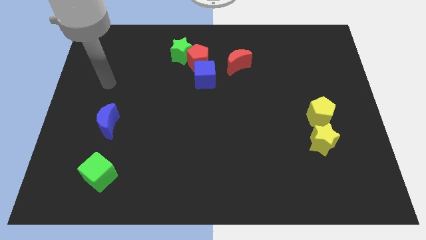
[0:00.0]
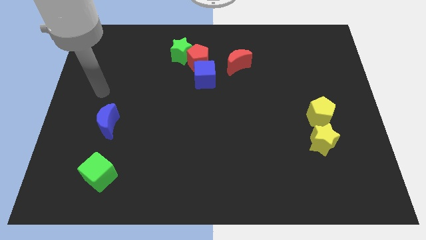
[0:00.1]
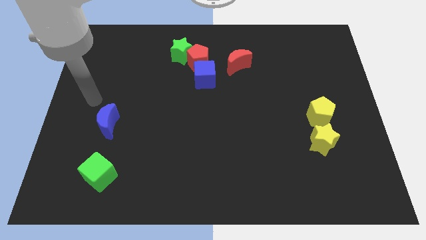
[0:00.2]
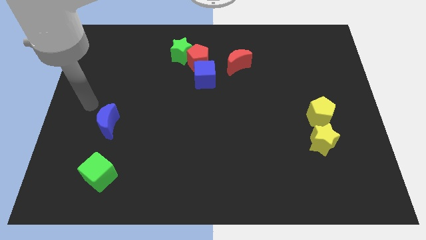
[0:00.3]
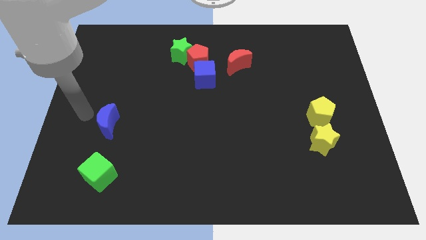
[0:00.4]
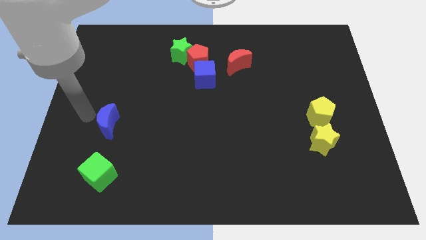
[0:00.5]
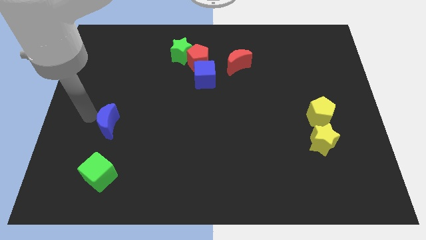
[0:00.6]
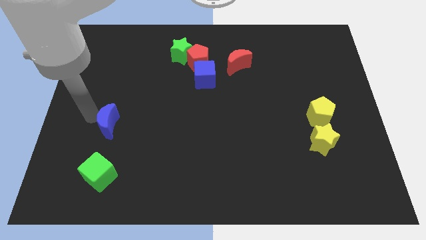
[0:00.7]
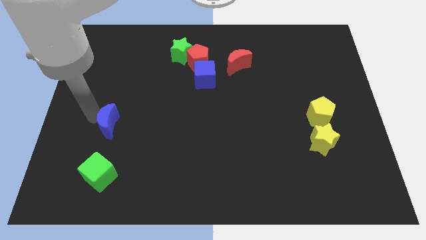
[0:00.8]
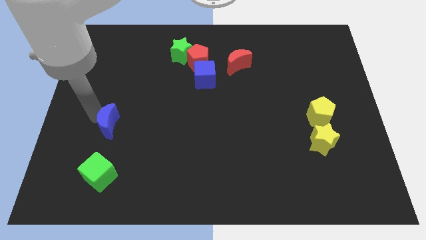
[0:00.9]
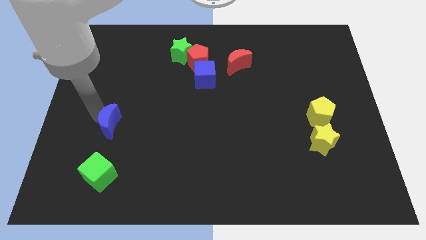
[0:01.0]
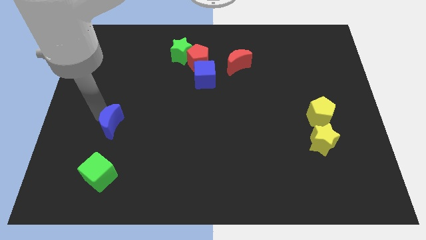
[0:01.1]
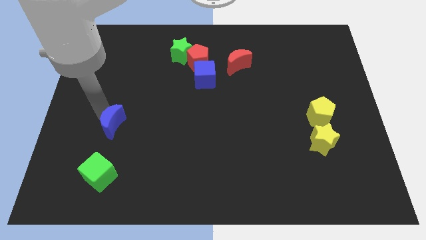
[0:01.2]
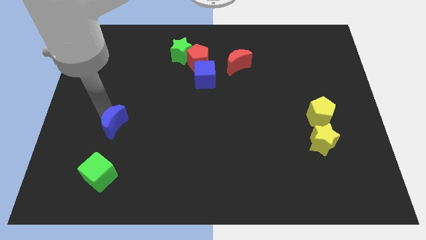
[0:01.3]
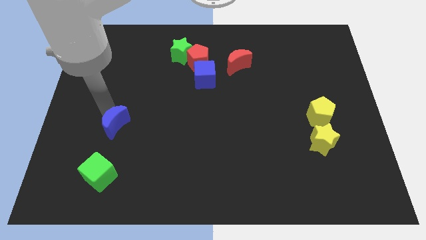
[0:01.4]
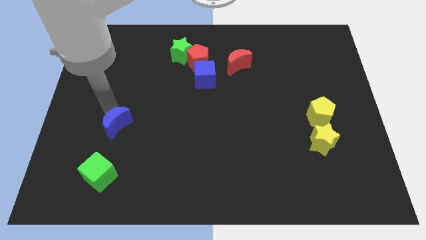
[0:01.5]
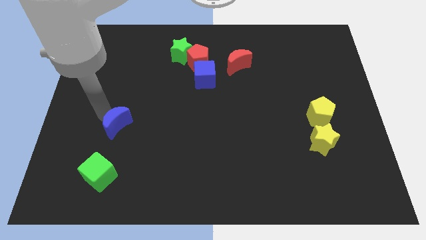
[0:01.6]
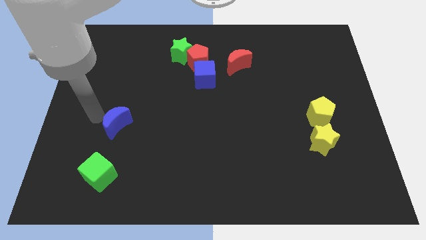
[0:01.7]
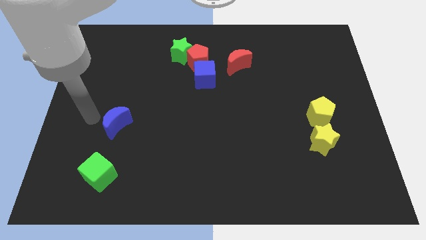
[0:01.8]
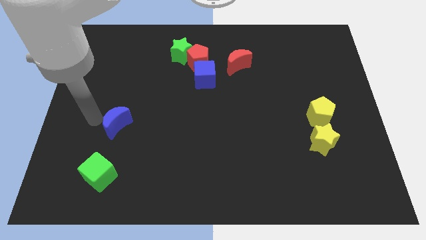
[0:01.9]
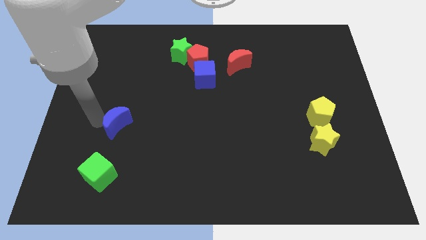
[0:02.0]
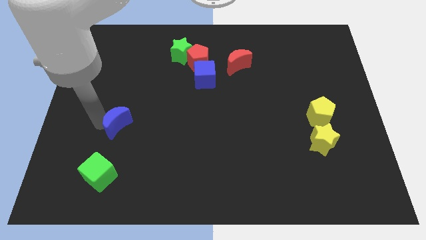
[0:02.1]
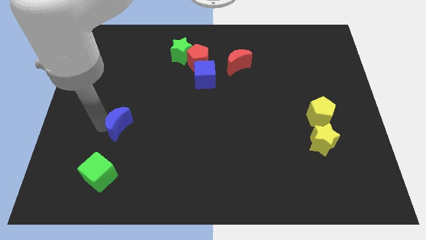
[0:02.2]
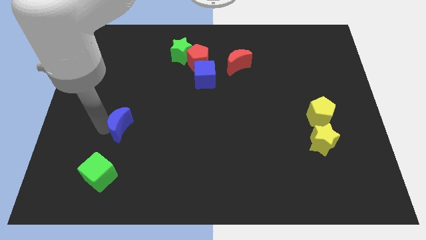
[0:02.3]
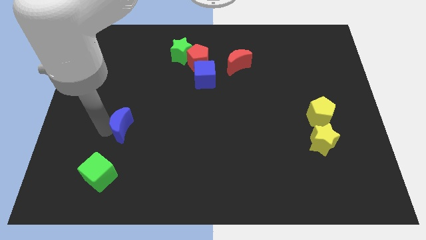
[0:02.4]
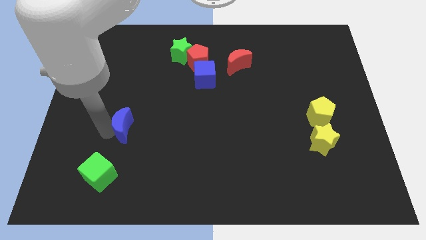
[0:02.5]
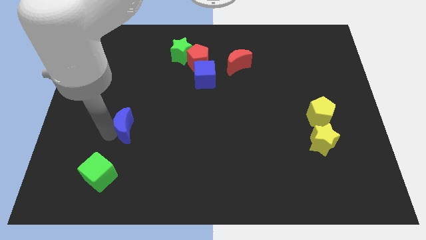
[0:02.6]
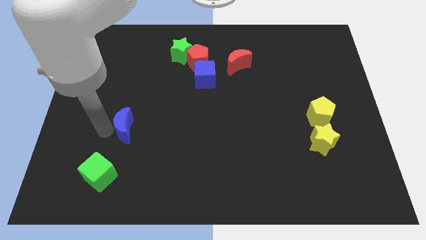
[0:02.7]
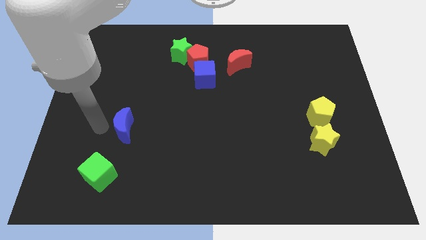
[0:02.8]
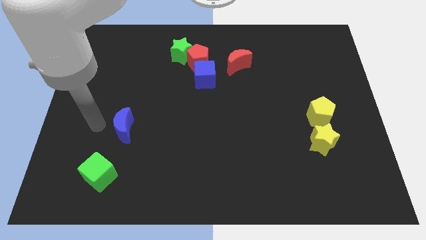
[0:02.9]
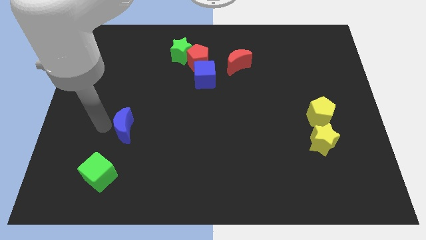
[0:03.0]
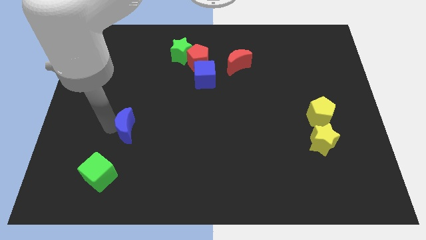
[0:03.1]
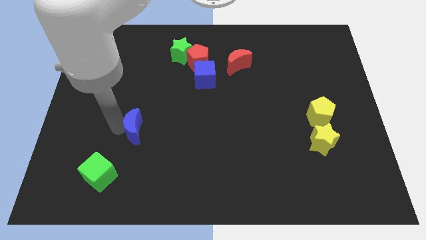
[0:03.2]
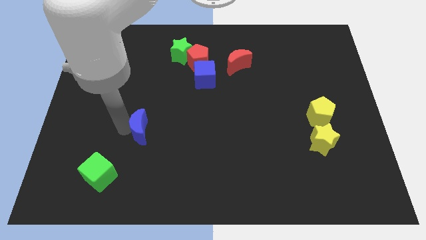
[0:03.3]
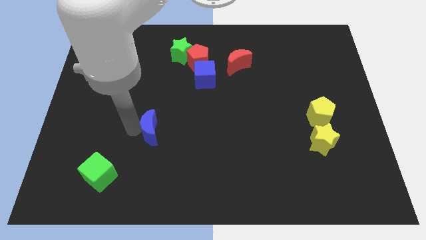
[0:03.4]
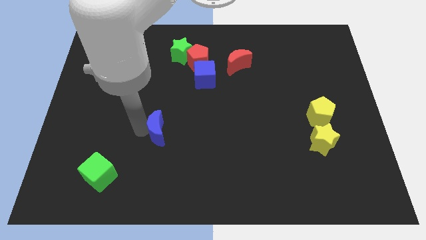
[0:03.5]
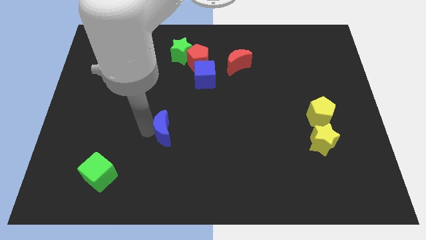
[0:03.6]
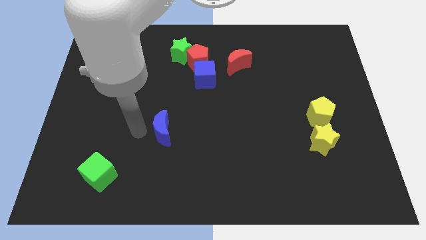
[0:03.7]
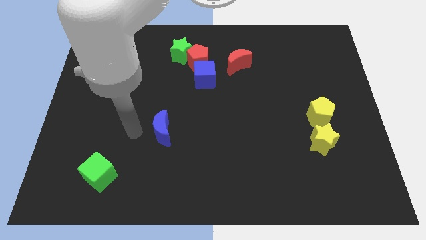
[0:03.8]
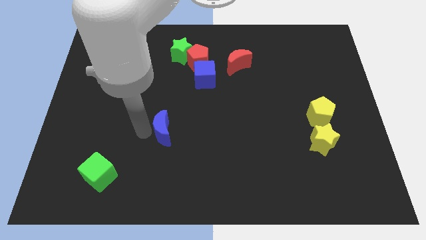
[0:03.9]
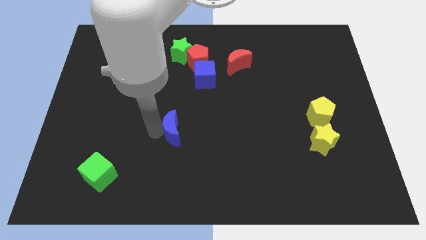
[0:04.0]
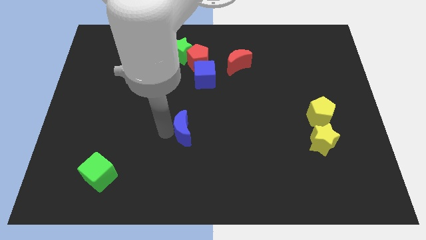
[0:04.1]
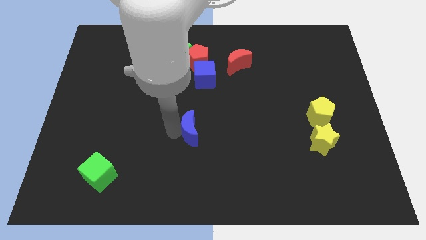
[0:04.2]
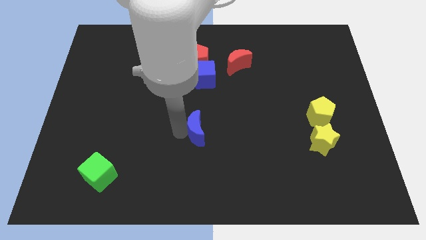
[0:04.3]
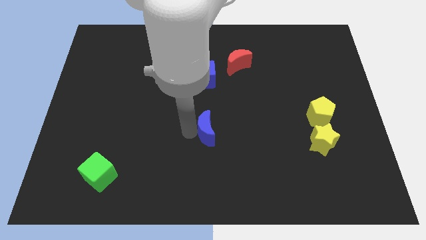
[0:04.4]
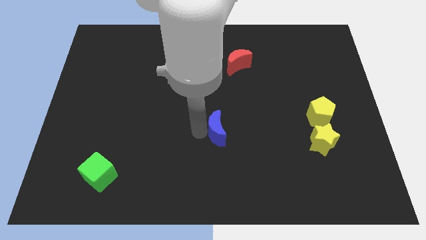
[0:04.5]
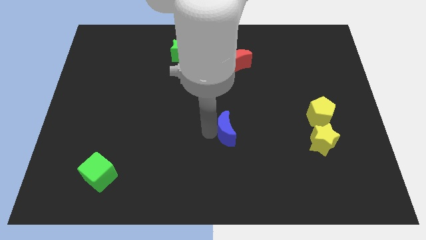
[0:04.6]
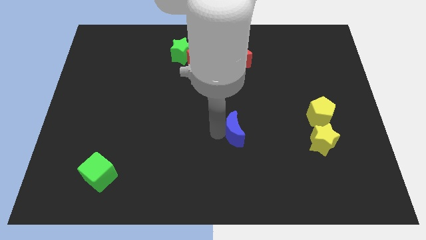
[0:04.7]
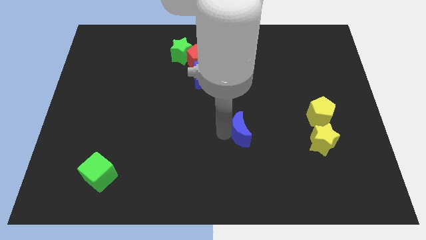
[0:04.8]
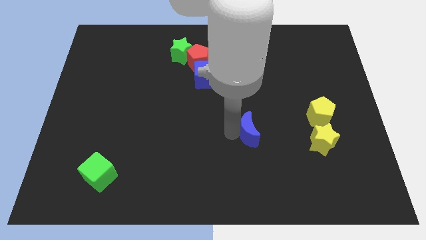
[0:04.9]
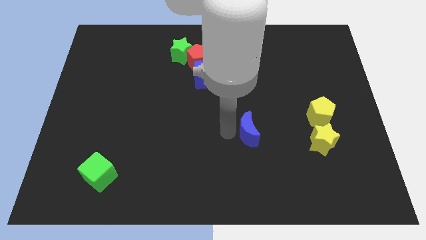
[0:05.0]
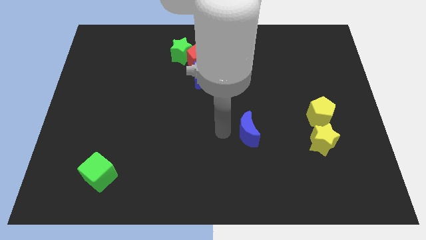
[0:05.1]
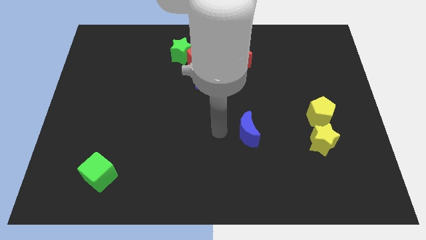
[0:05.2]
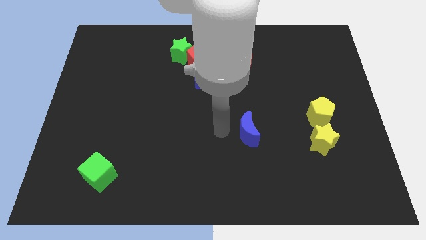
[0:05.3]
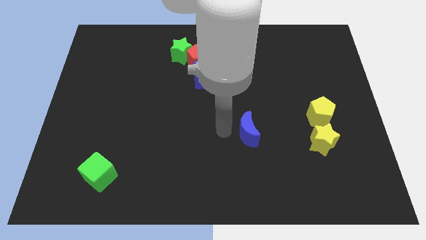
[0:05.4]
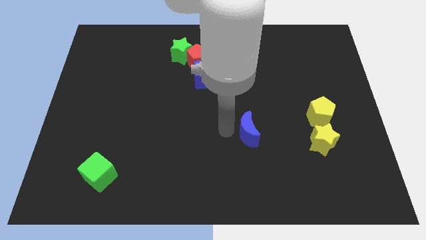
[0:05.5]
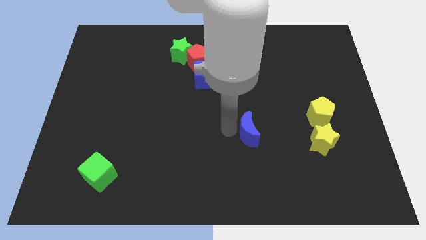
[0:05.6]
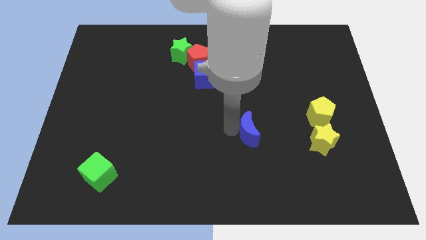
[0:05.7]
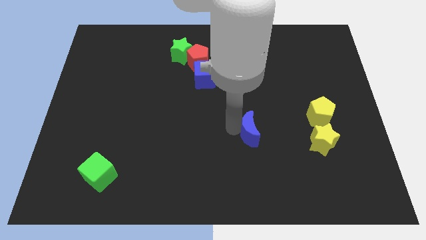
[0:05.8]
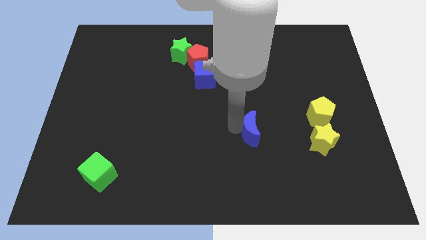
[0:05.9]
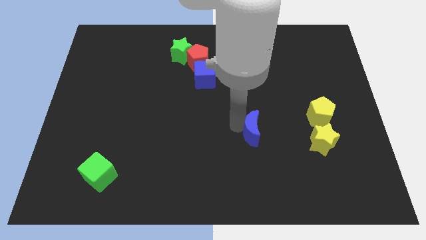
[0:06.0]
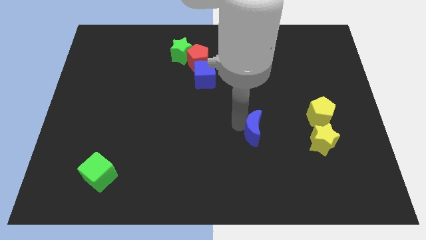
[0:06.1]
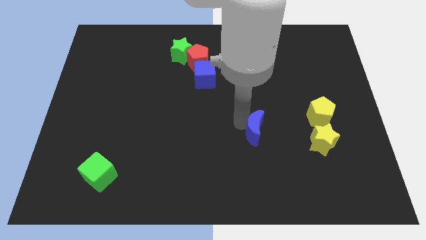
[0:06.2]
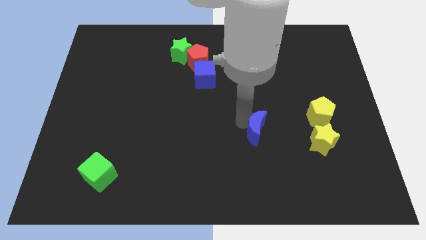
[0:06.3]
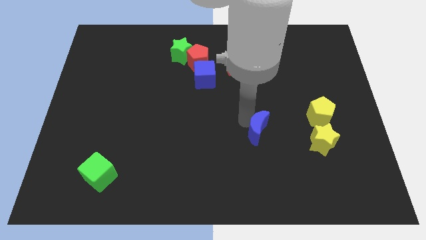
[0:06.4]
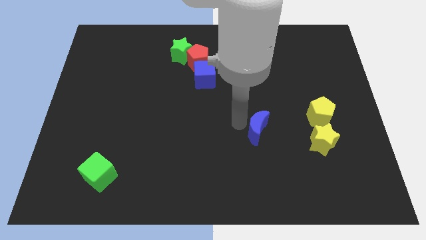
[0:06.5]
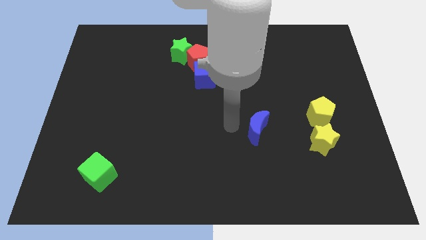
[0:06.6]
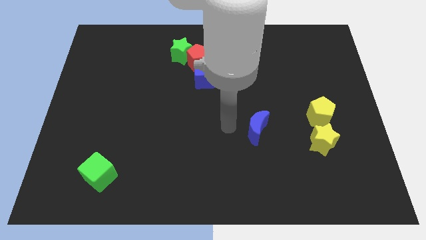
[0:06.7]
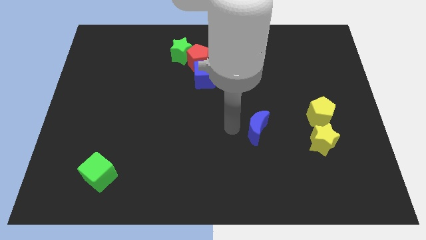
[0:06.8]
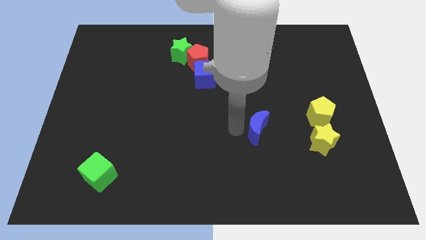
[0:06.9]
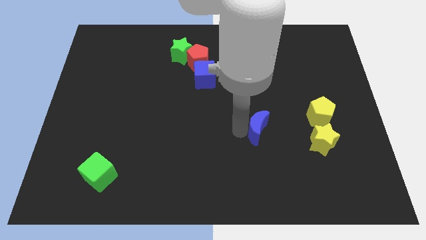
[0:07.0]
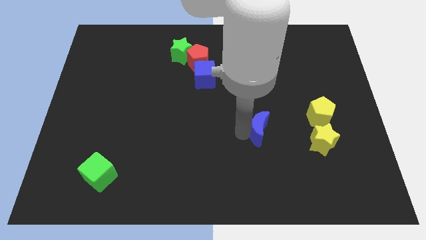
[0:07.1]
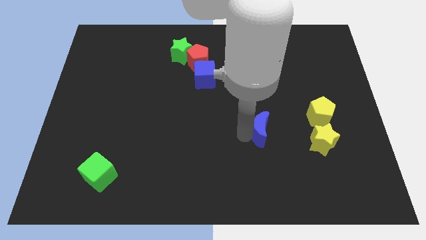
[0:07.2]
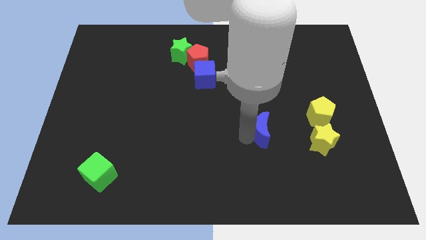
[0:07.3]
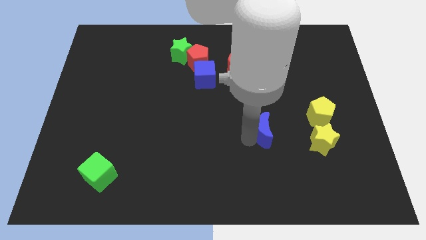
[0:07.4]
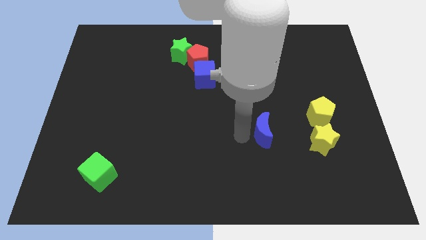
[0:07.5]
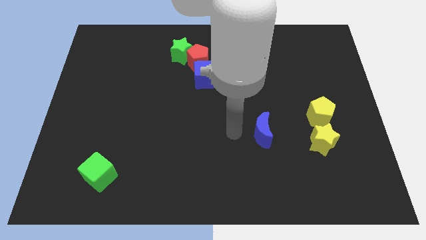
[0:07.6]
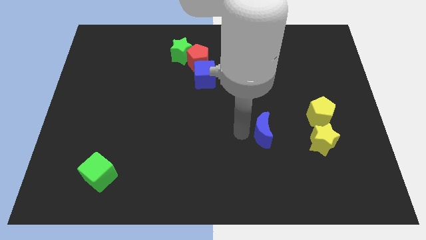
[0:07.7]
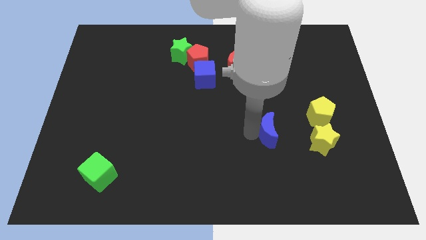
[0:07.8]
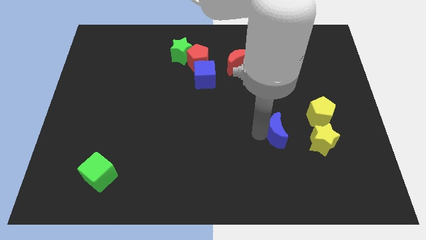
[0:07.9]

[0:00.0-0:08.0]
put the blue moon diagonally down and to the left of the yellow pentagon
